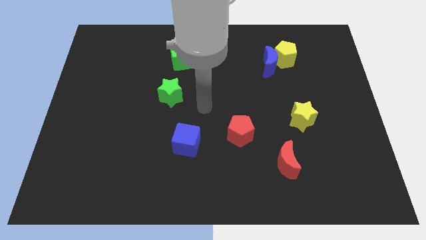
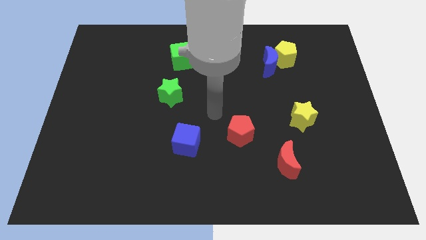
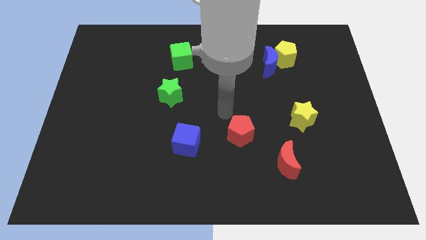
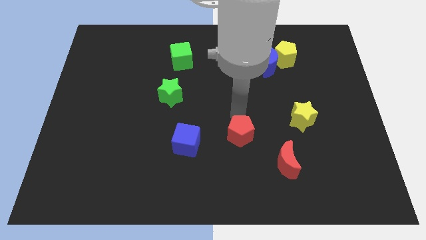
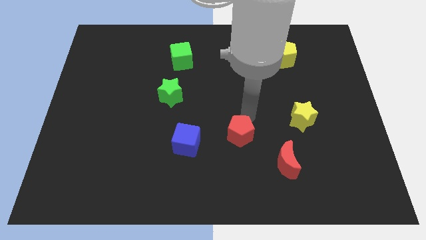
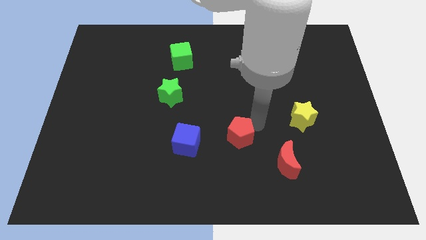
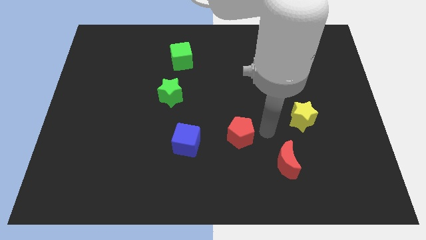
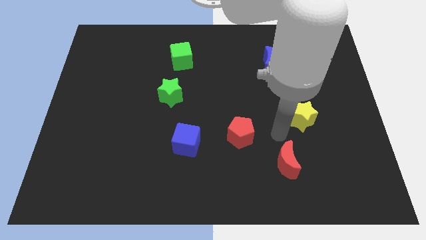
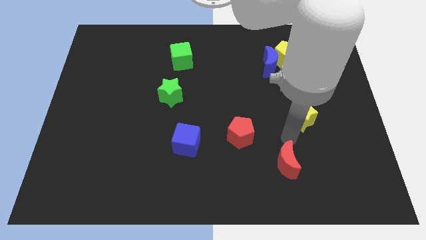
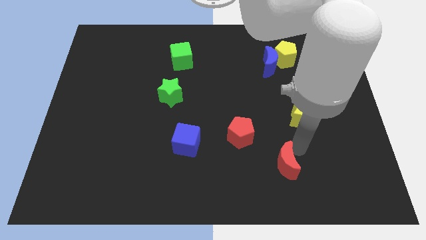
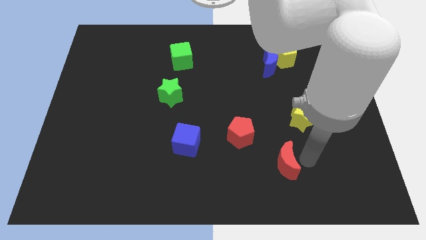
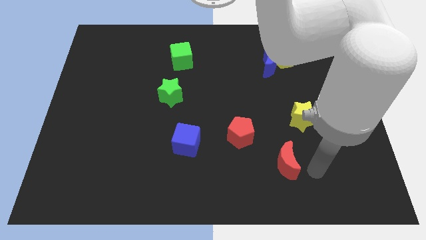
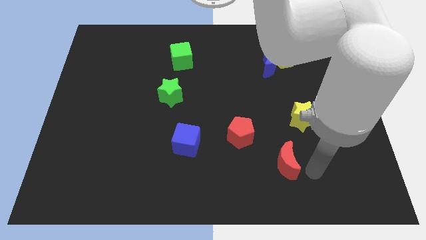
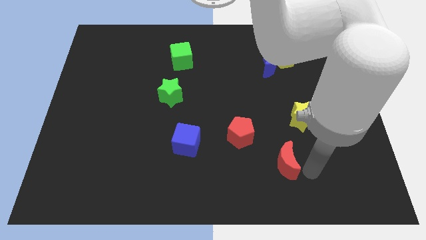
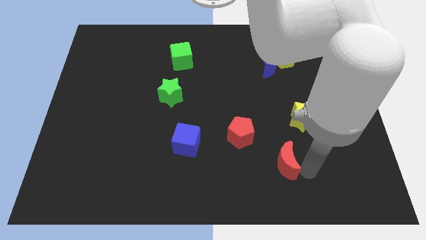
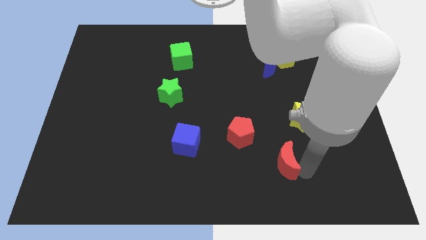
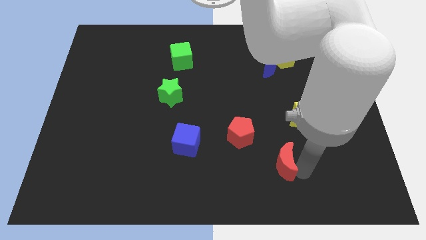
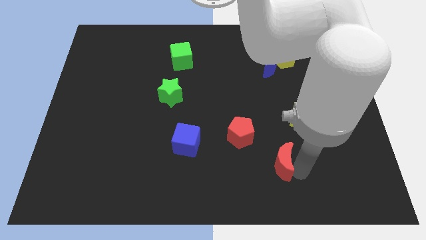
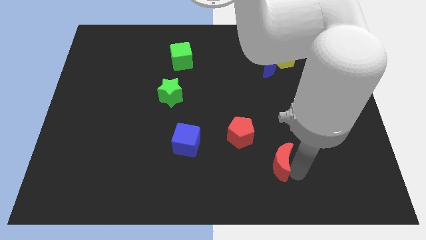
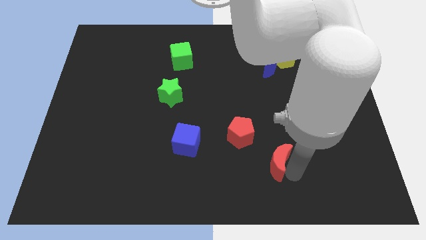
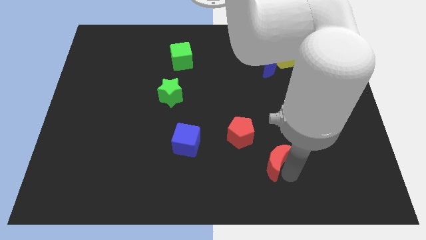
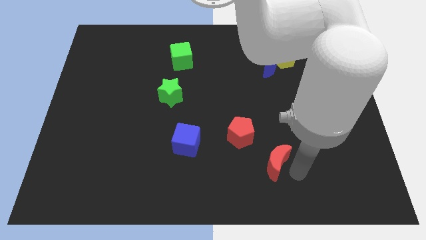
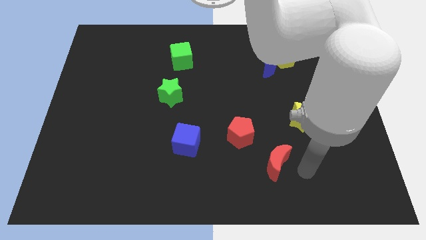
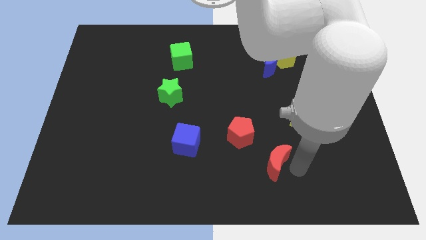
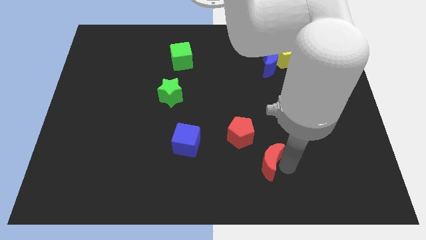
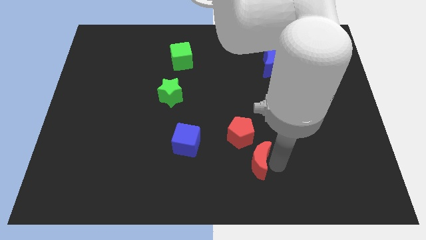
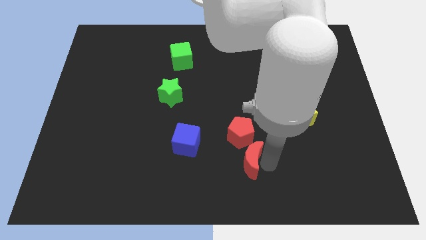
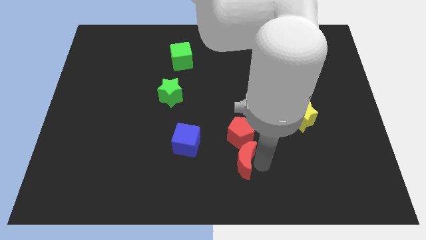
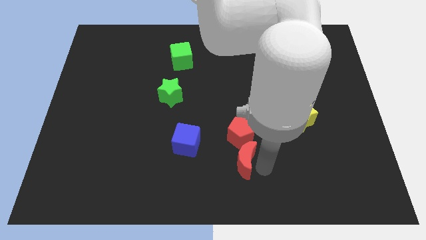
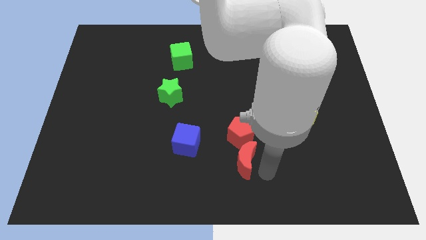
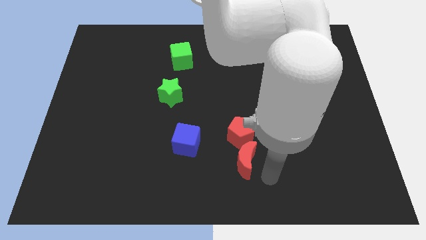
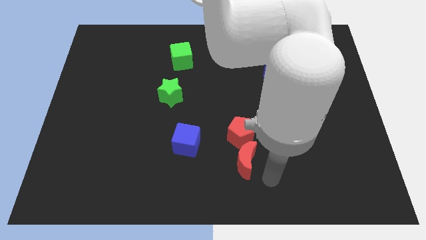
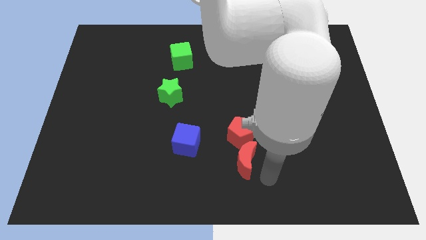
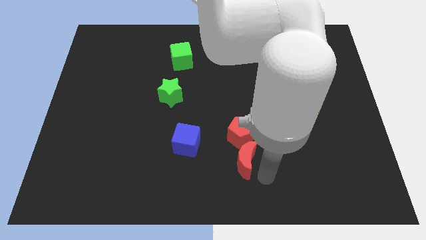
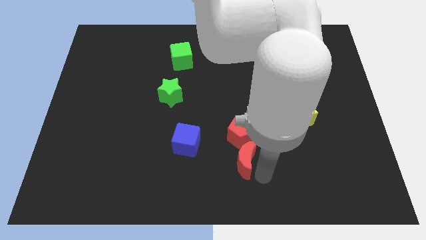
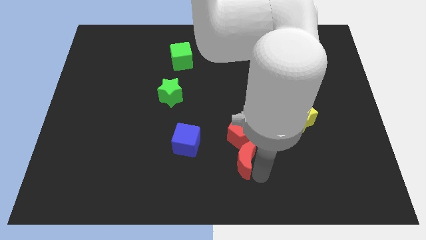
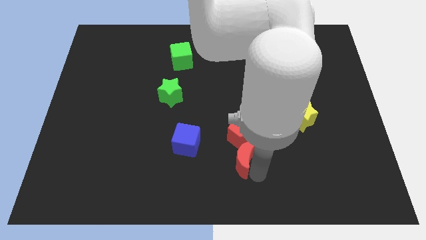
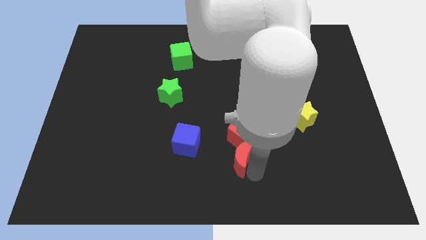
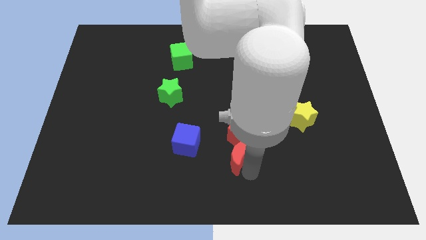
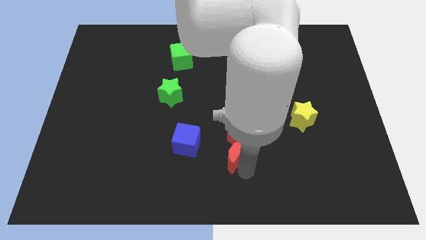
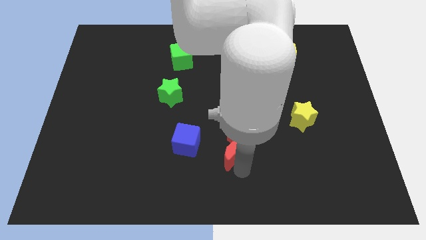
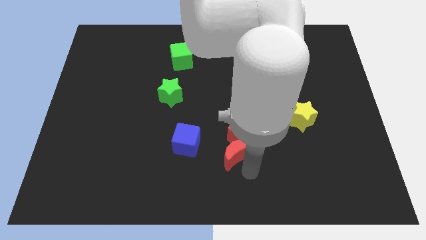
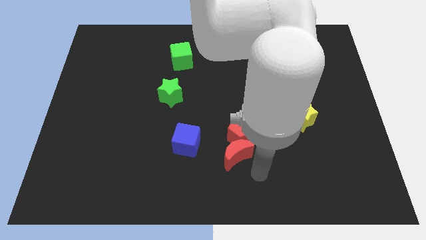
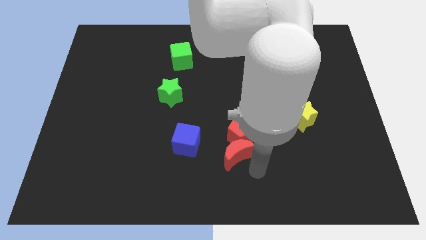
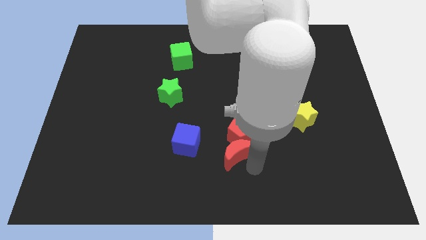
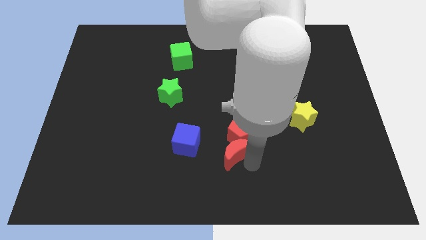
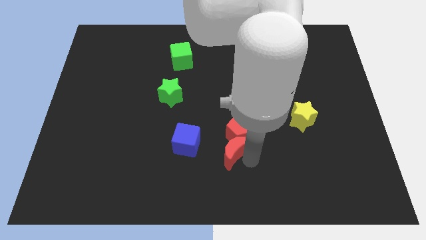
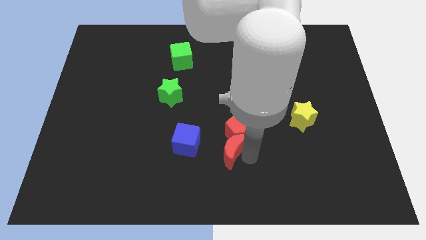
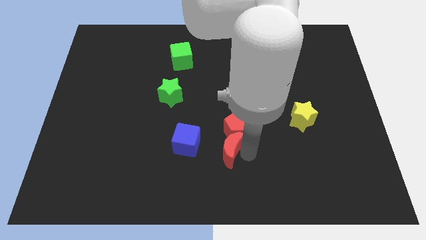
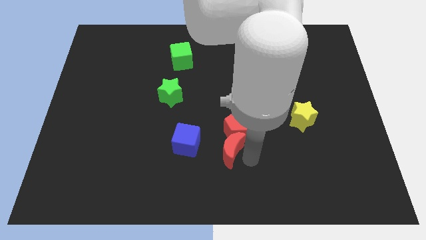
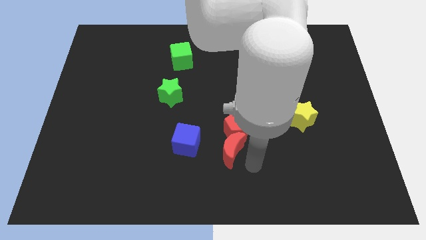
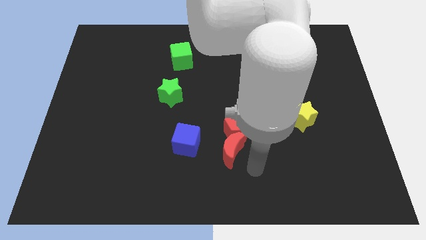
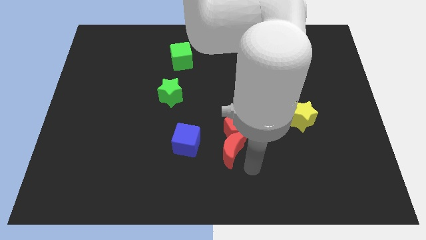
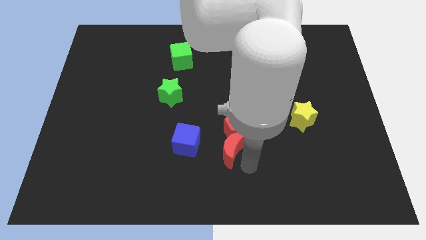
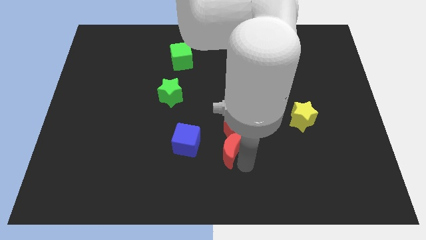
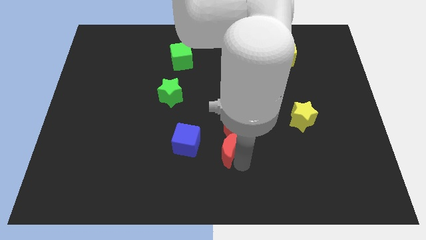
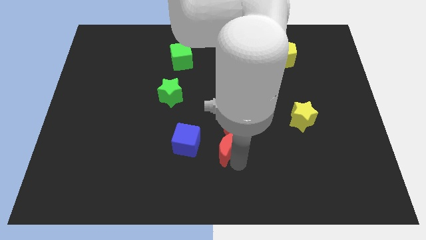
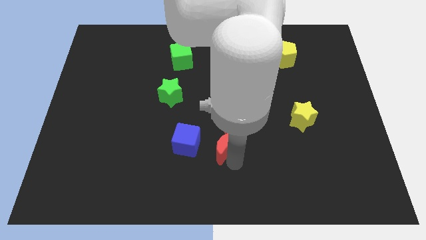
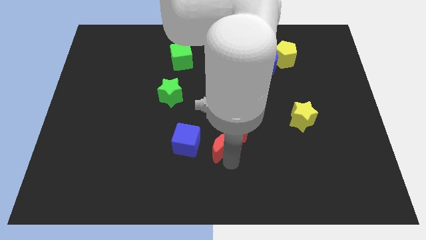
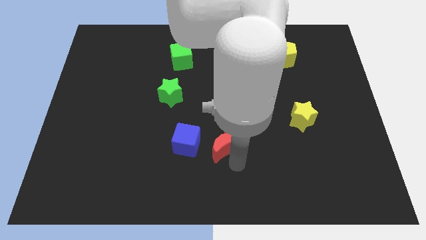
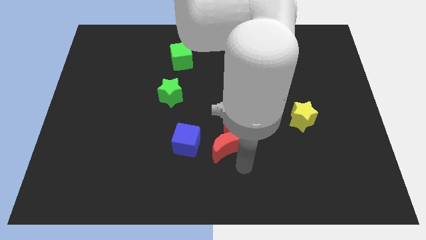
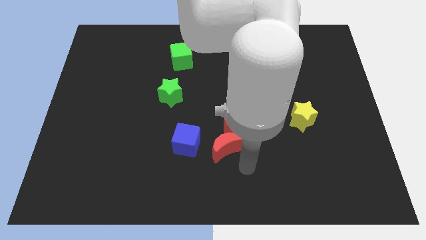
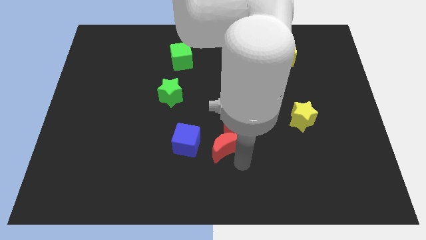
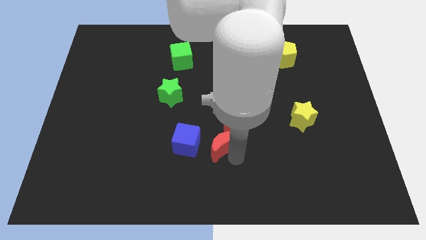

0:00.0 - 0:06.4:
move the red moon just left of the red pentagon

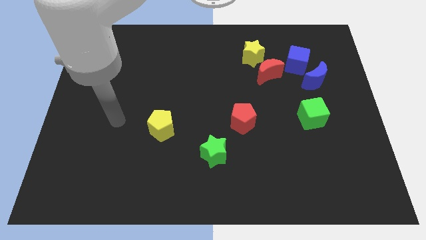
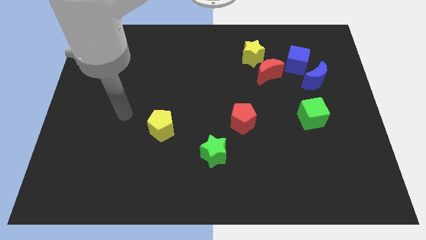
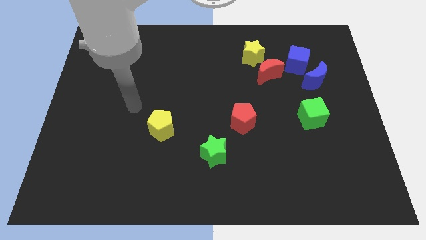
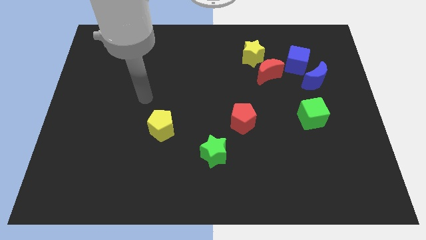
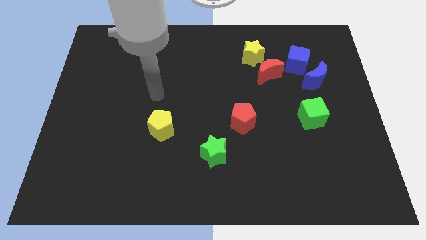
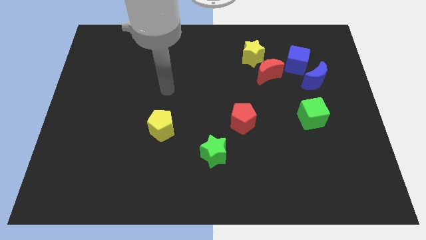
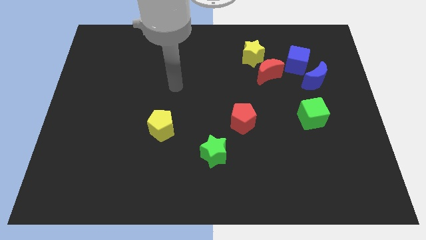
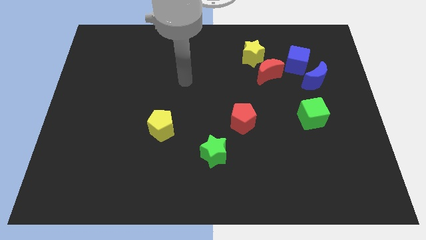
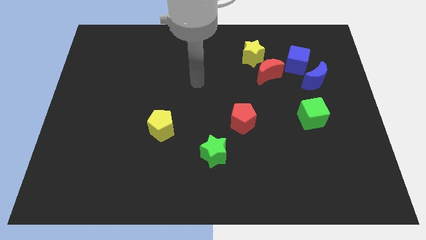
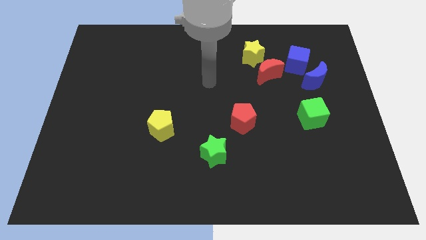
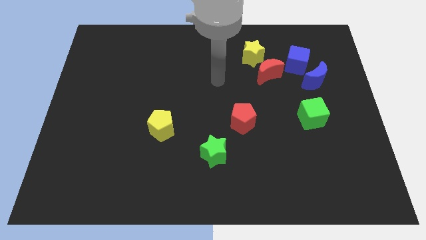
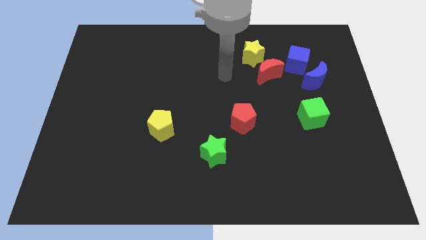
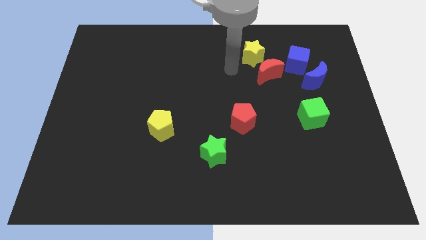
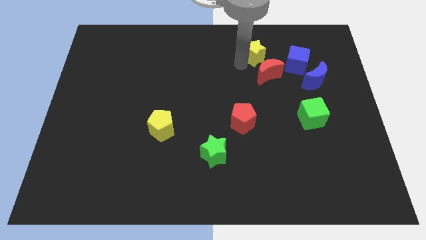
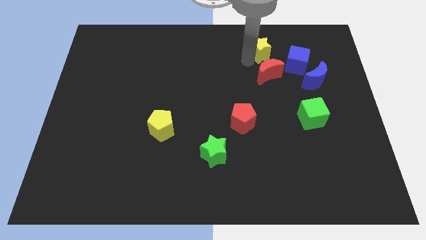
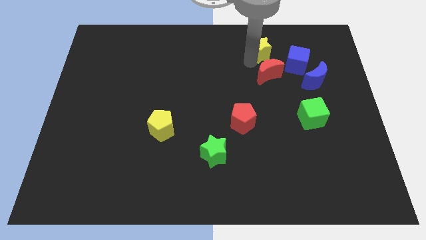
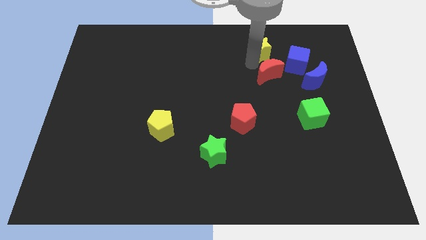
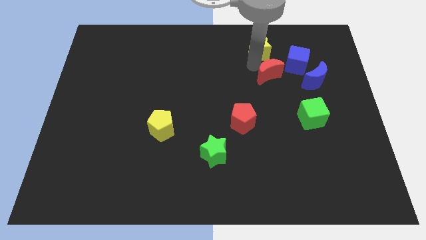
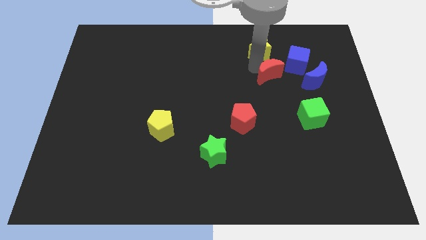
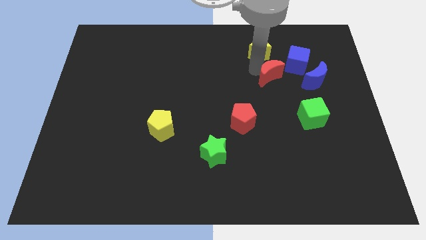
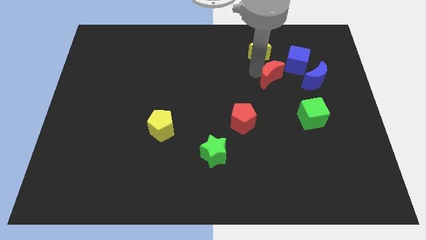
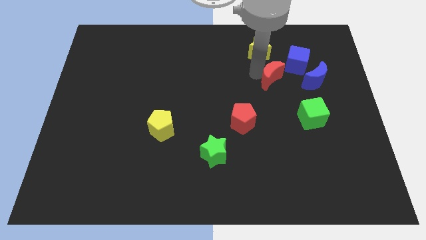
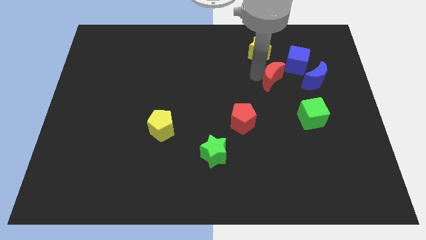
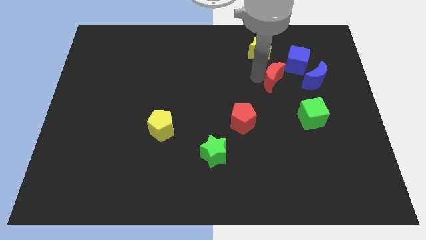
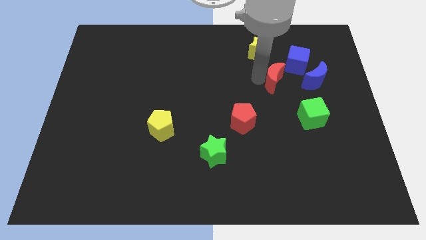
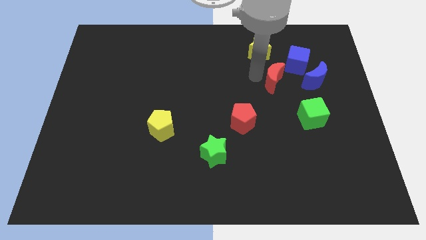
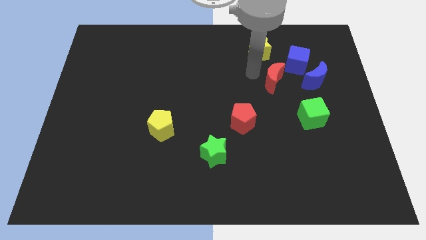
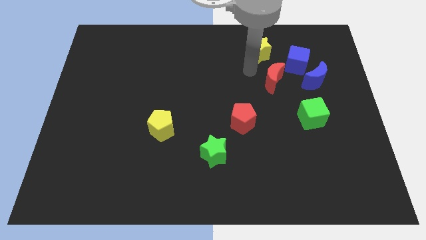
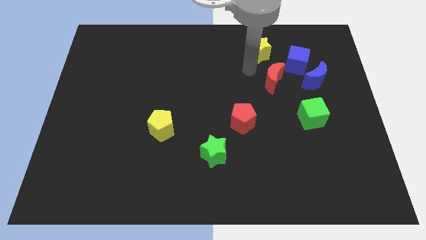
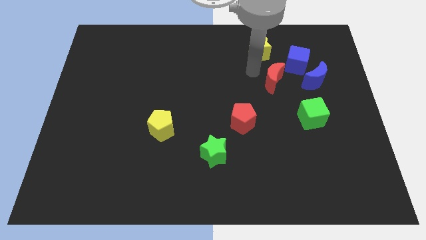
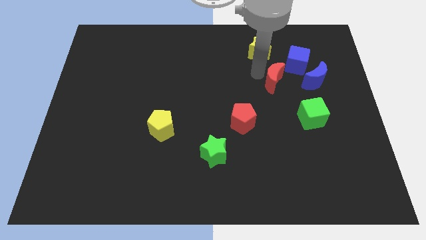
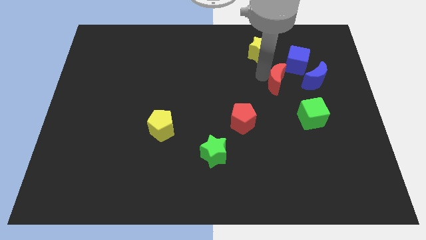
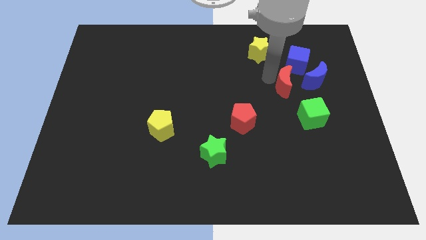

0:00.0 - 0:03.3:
slide the red moon to the bottom of the blue cube
